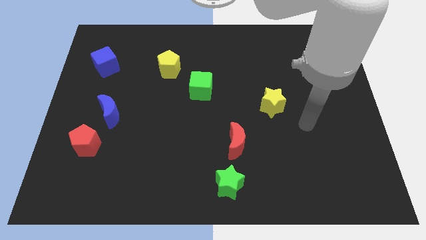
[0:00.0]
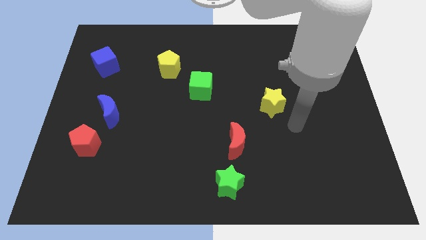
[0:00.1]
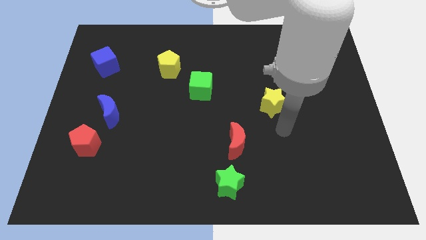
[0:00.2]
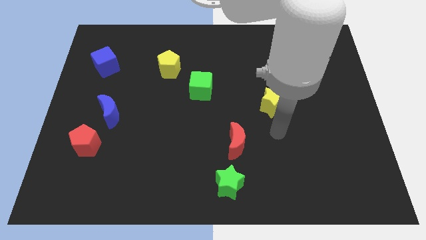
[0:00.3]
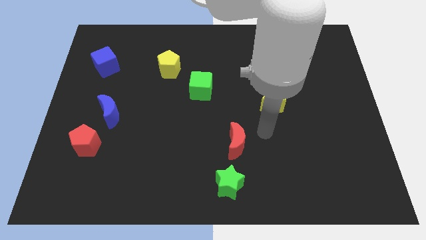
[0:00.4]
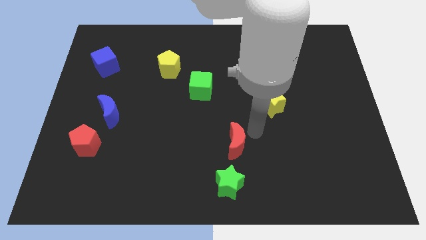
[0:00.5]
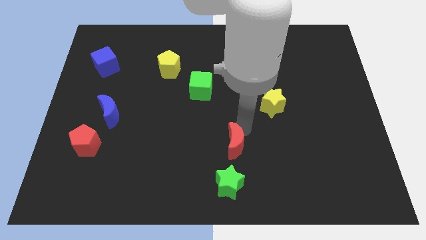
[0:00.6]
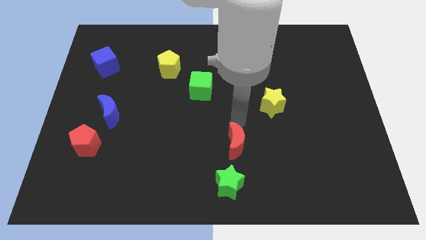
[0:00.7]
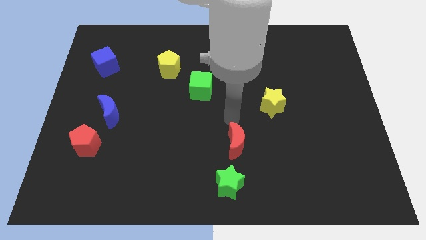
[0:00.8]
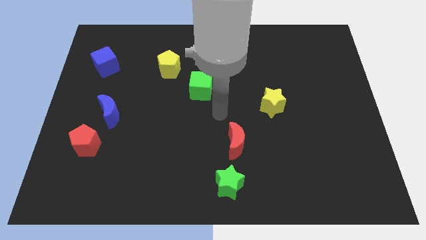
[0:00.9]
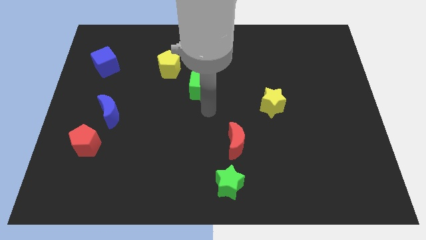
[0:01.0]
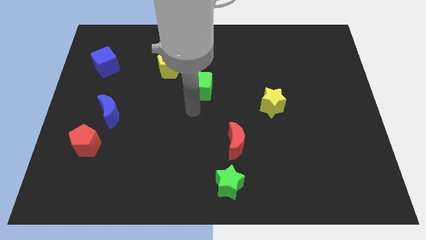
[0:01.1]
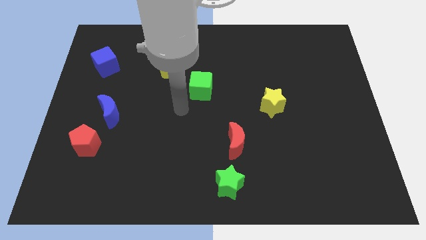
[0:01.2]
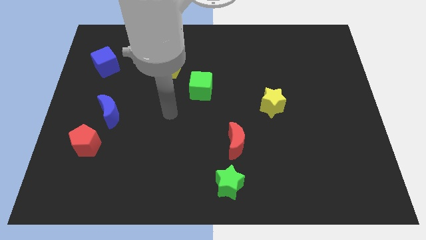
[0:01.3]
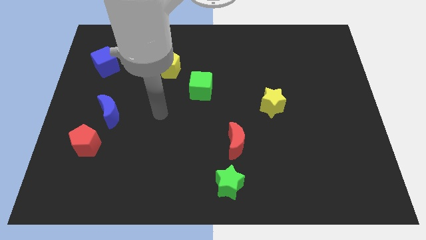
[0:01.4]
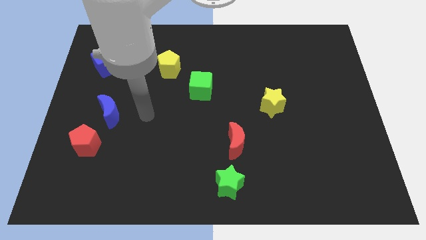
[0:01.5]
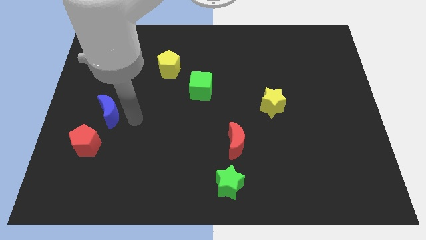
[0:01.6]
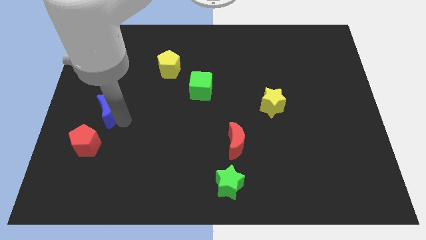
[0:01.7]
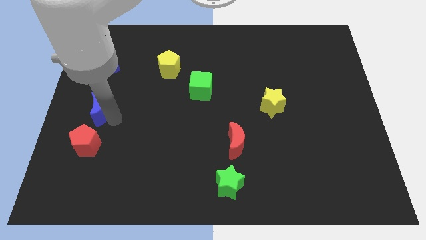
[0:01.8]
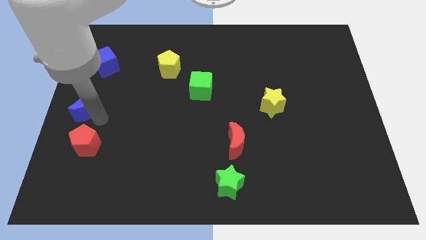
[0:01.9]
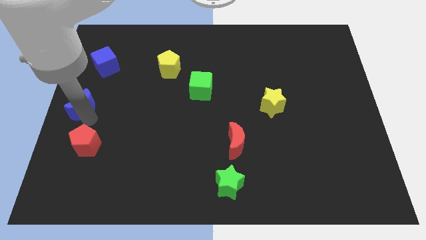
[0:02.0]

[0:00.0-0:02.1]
pull the red pentagon apart from the blue moon

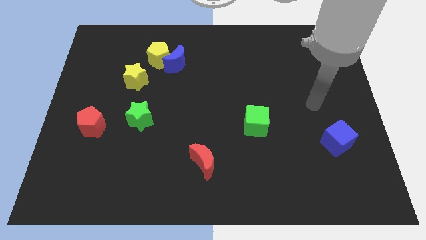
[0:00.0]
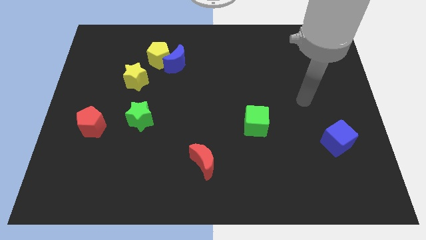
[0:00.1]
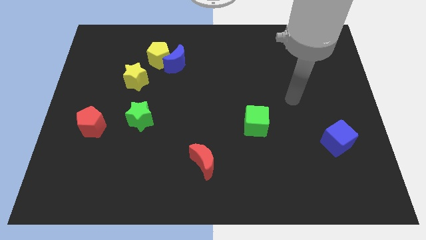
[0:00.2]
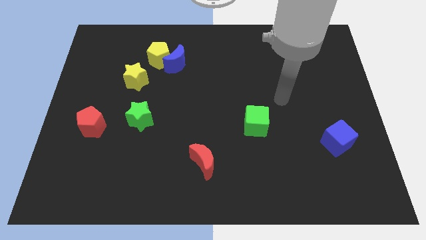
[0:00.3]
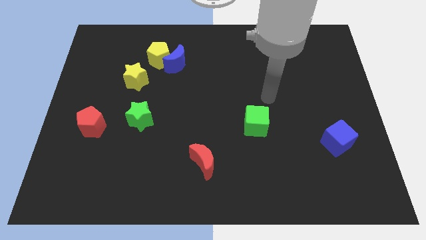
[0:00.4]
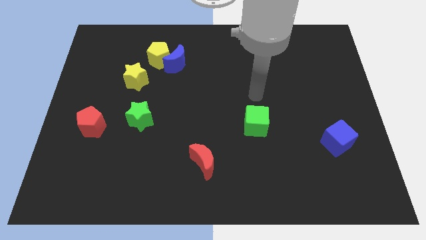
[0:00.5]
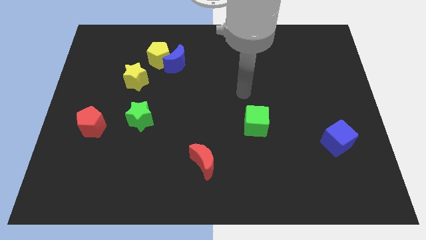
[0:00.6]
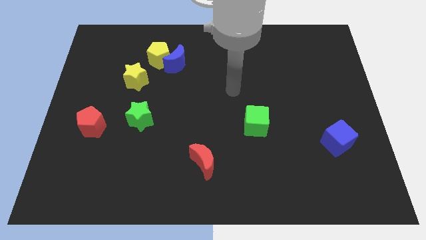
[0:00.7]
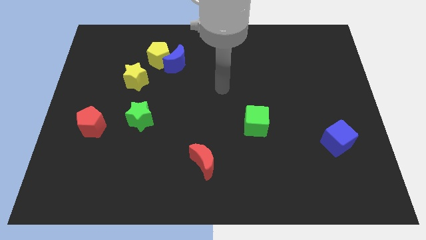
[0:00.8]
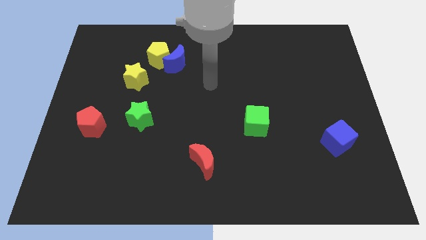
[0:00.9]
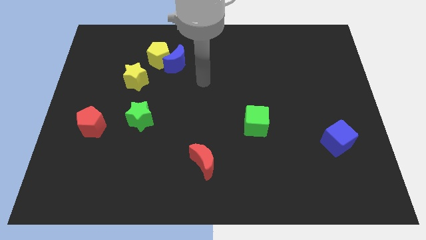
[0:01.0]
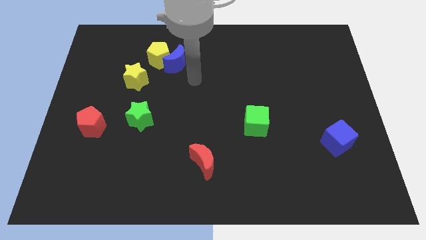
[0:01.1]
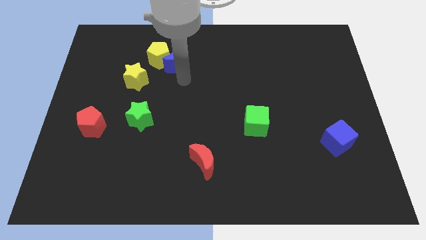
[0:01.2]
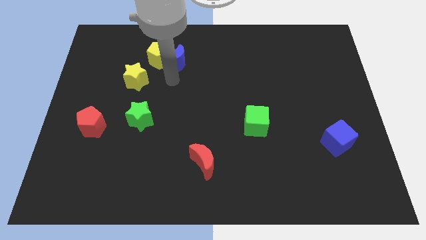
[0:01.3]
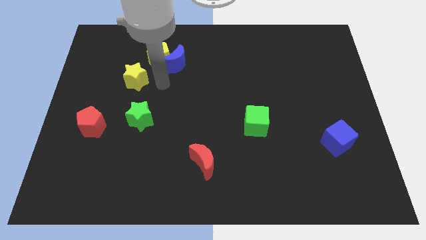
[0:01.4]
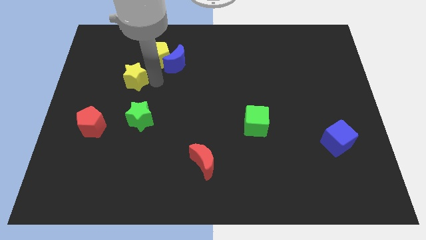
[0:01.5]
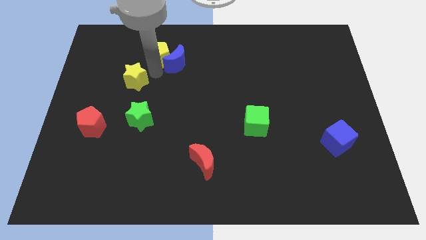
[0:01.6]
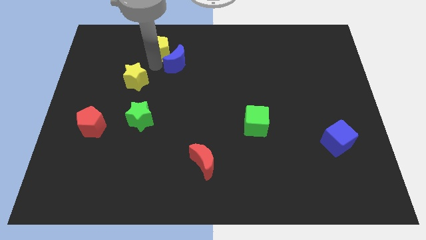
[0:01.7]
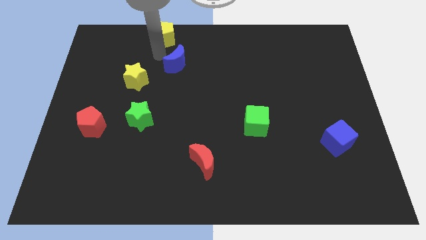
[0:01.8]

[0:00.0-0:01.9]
pull the blue moon apart from the yellow pentagon

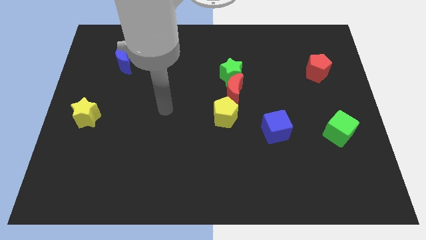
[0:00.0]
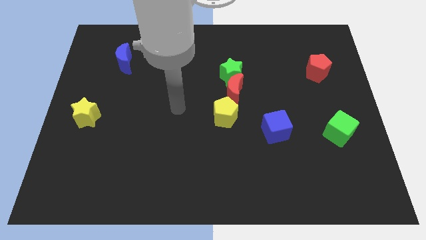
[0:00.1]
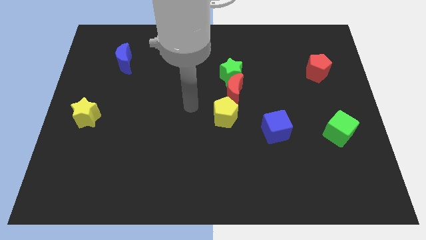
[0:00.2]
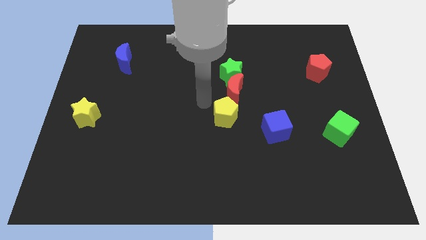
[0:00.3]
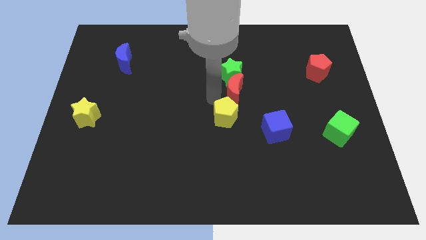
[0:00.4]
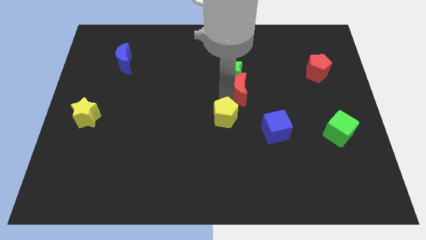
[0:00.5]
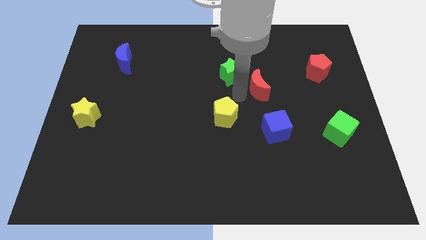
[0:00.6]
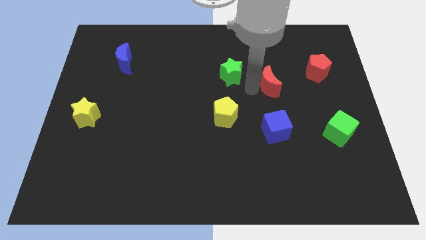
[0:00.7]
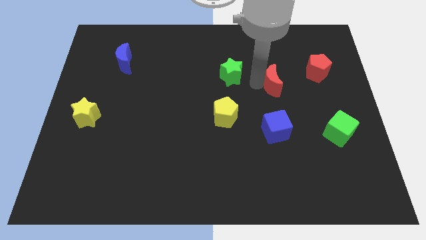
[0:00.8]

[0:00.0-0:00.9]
separate the green star from the red moon

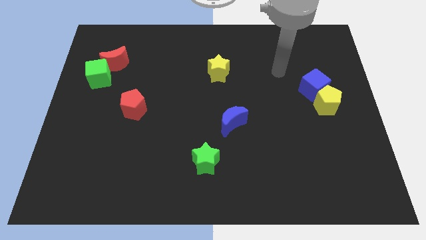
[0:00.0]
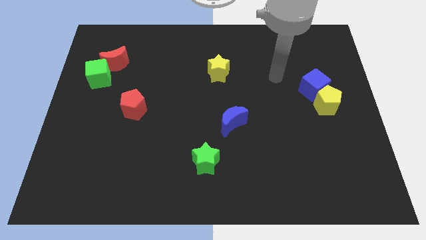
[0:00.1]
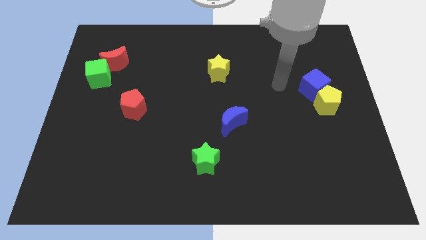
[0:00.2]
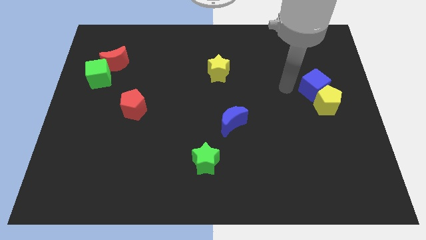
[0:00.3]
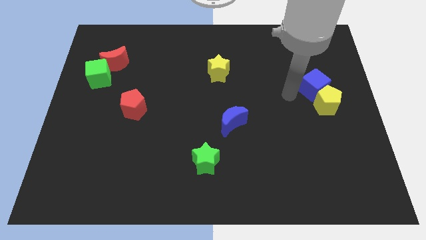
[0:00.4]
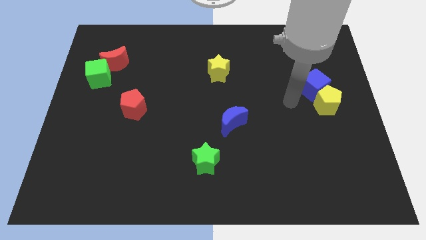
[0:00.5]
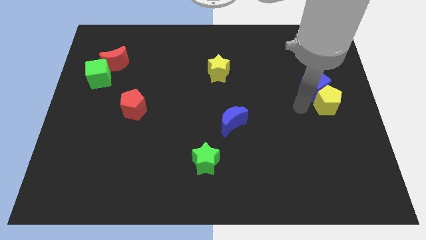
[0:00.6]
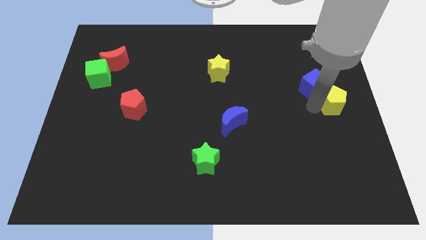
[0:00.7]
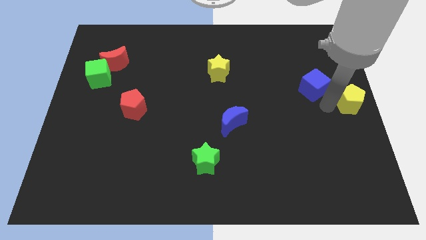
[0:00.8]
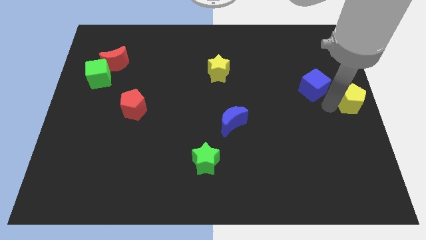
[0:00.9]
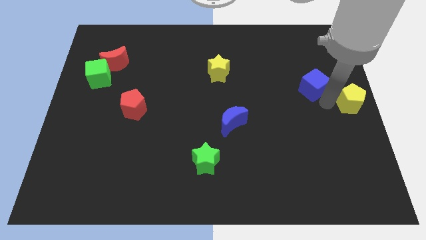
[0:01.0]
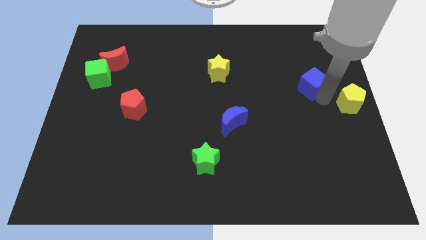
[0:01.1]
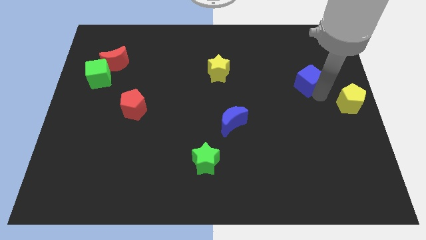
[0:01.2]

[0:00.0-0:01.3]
separate the blue cube from the yellow pentagon

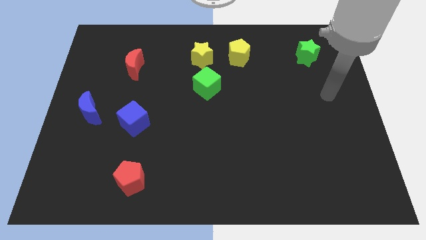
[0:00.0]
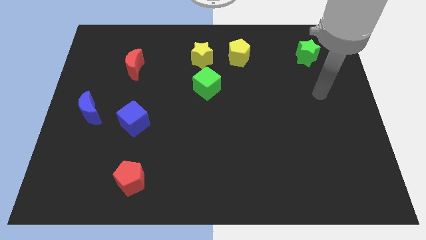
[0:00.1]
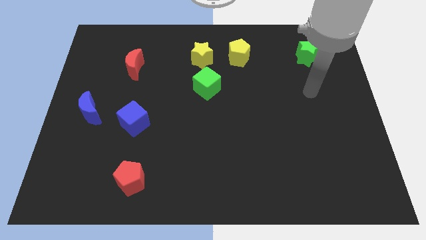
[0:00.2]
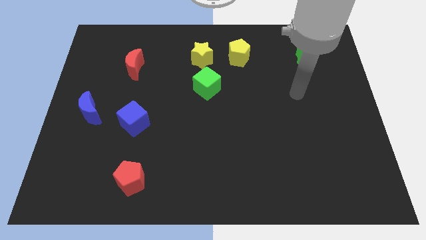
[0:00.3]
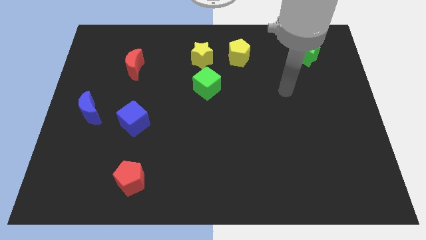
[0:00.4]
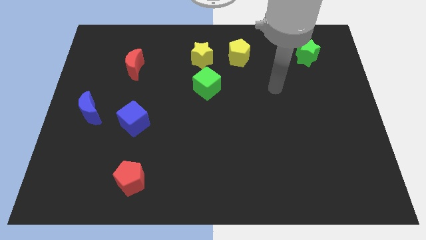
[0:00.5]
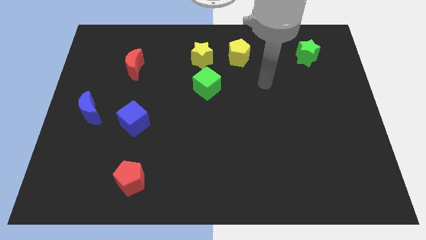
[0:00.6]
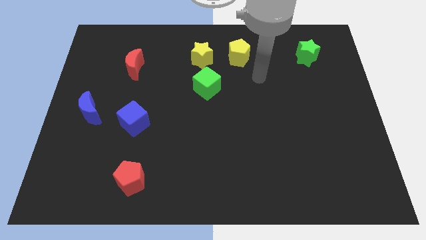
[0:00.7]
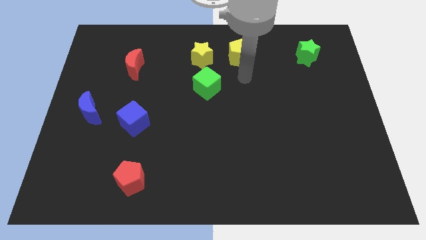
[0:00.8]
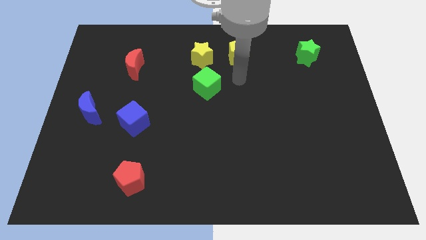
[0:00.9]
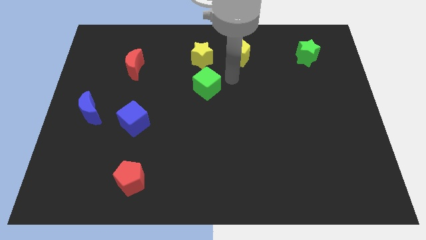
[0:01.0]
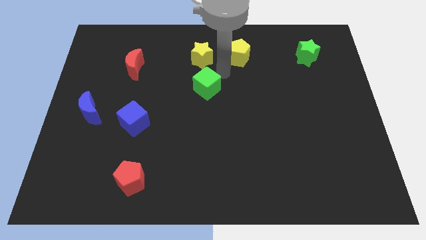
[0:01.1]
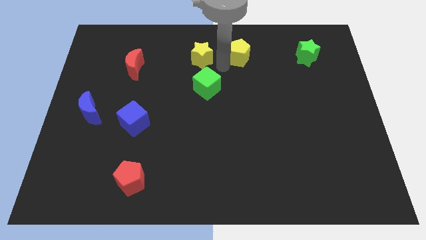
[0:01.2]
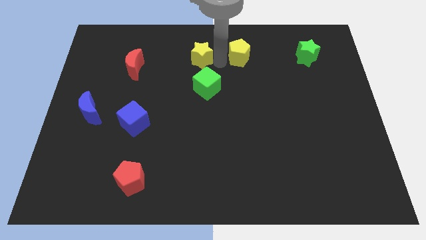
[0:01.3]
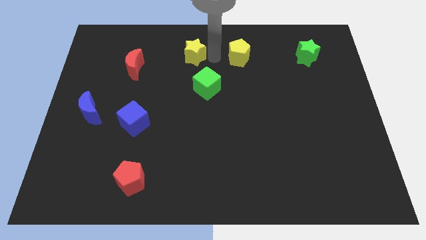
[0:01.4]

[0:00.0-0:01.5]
move the yellow pentagon away from the yellow star

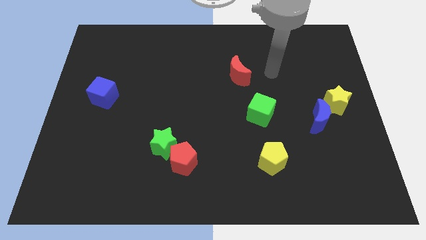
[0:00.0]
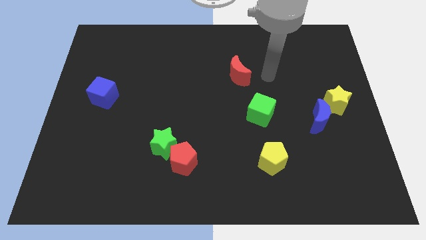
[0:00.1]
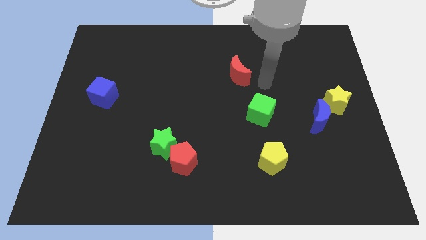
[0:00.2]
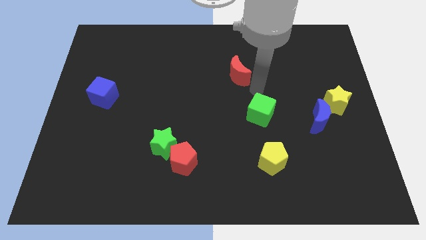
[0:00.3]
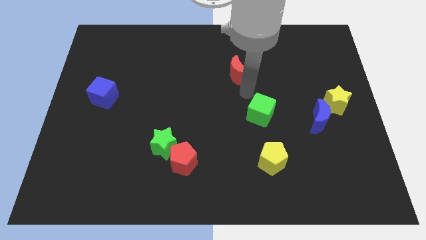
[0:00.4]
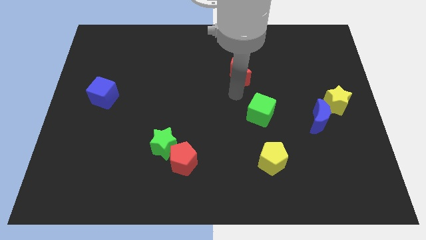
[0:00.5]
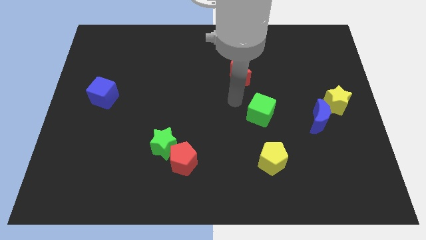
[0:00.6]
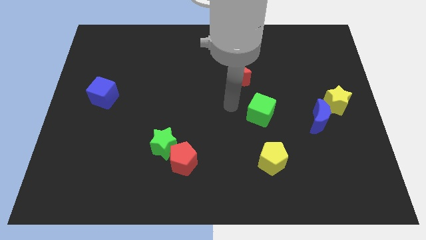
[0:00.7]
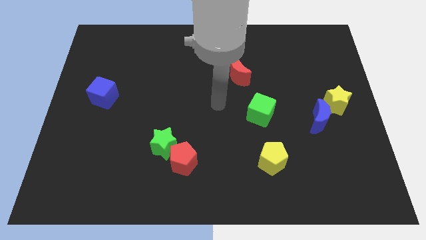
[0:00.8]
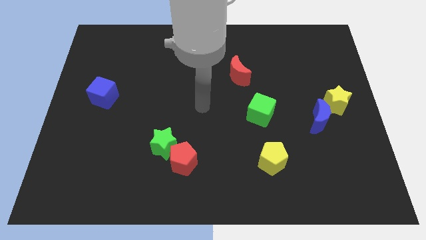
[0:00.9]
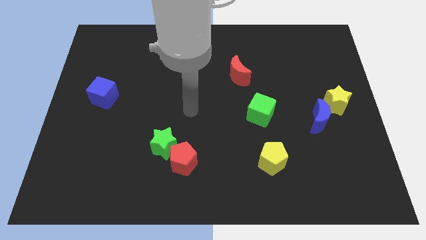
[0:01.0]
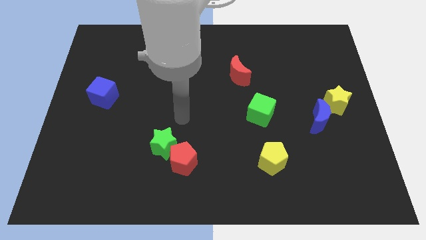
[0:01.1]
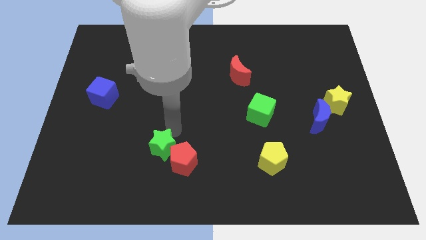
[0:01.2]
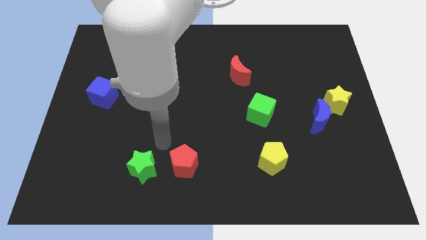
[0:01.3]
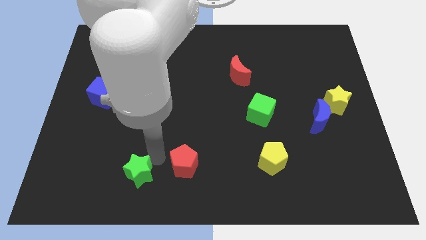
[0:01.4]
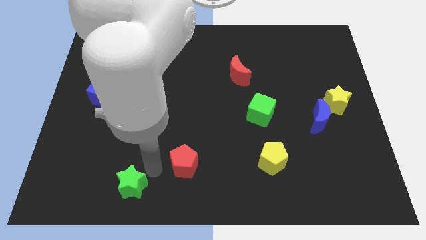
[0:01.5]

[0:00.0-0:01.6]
separate the red pentagon from the green star
